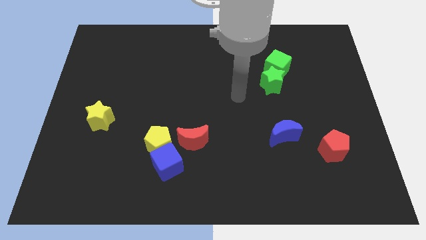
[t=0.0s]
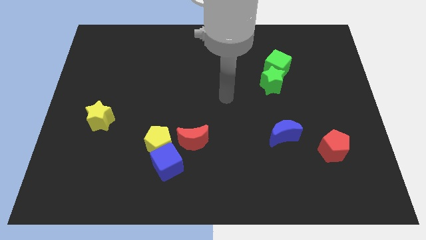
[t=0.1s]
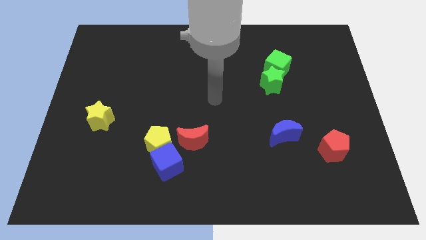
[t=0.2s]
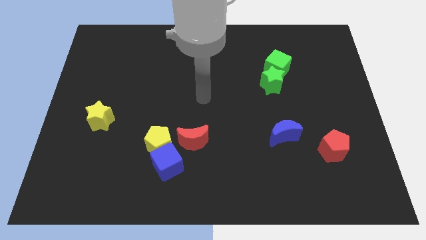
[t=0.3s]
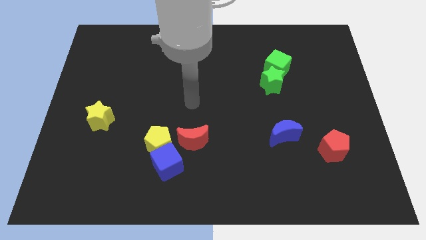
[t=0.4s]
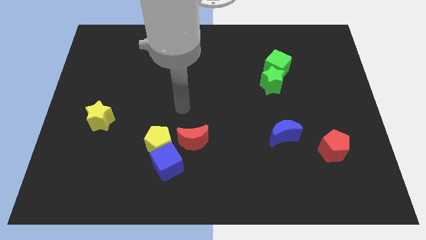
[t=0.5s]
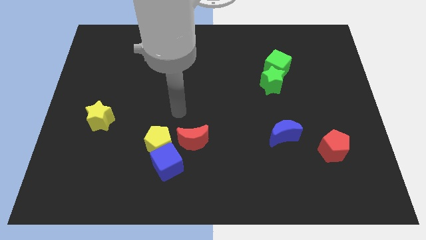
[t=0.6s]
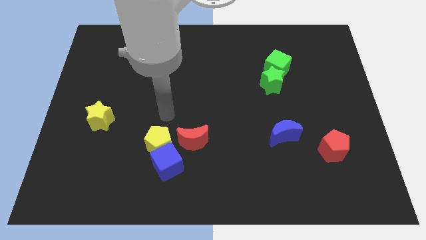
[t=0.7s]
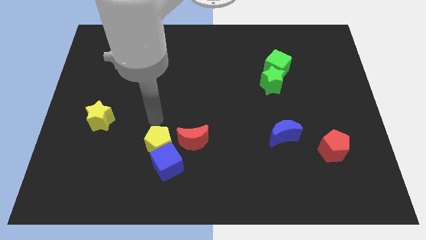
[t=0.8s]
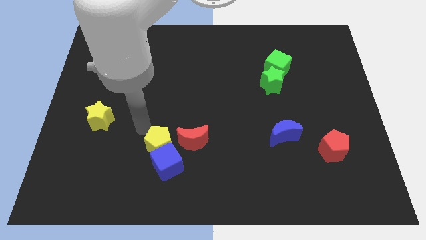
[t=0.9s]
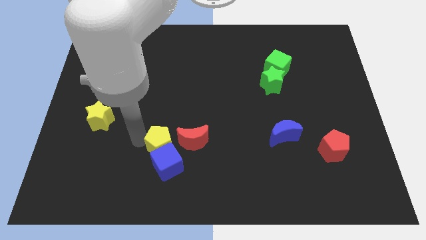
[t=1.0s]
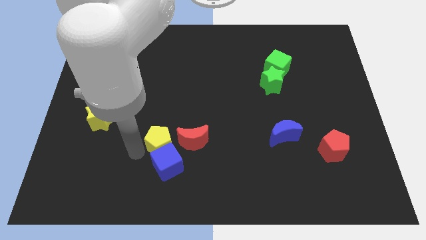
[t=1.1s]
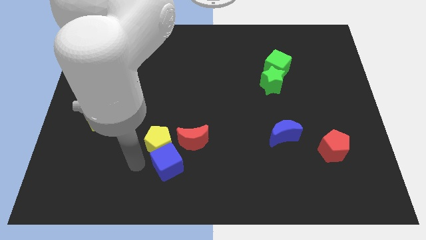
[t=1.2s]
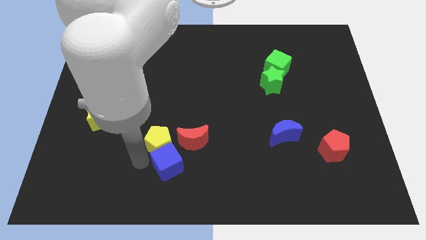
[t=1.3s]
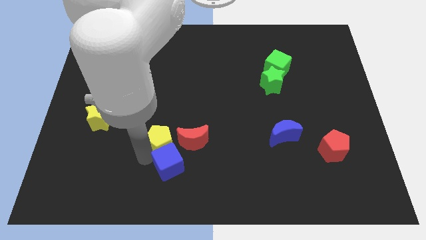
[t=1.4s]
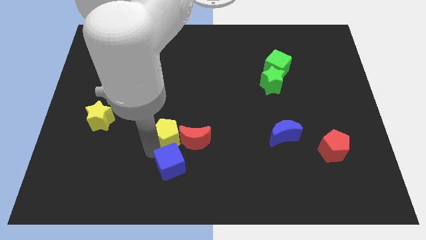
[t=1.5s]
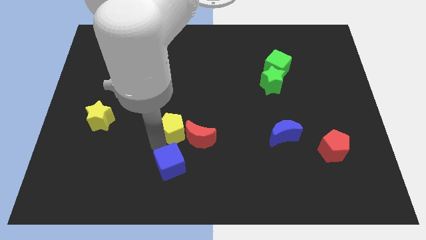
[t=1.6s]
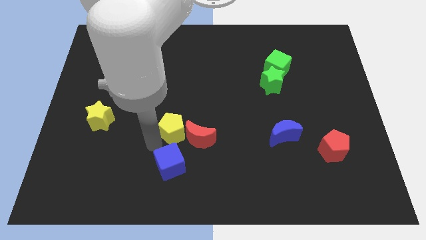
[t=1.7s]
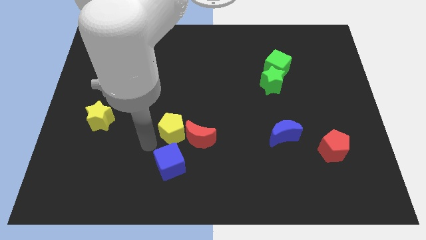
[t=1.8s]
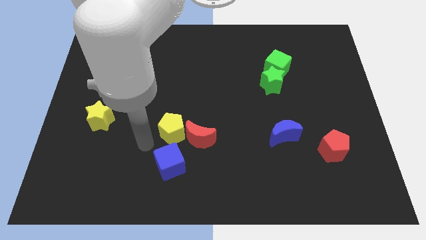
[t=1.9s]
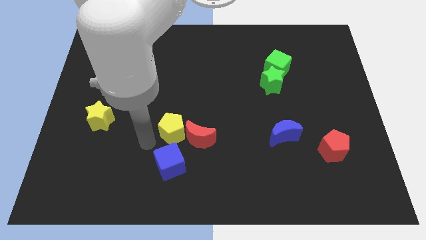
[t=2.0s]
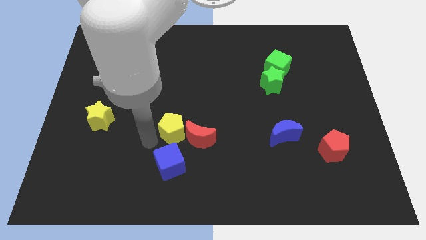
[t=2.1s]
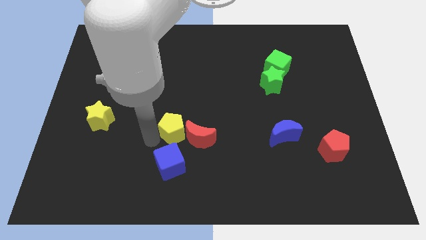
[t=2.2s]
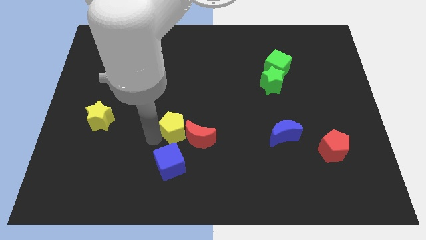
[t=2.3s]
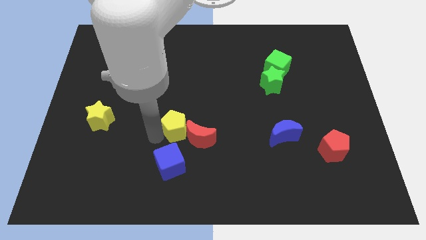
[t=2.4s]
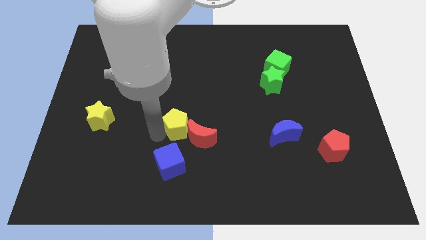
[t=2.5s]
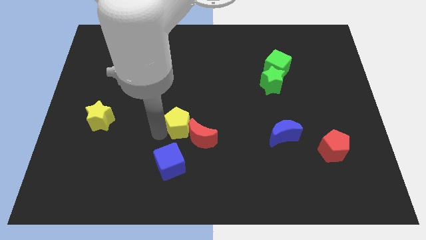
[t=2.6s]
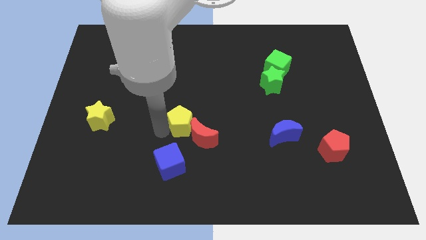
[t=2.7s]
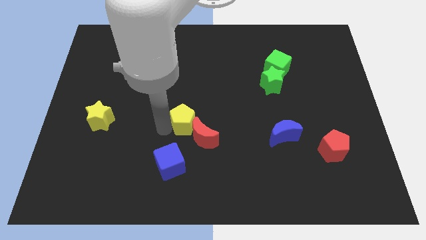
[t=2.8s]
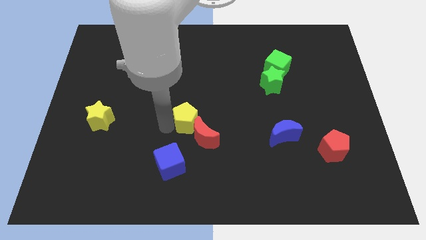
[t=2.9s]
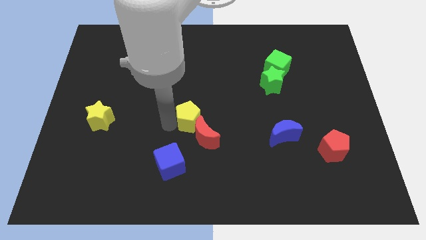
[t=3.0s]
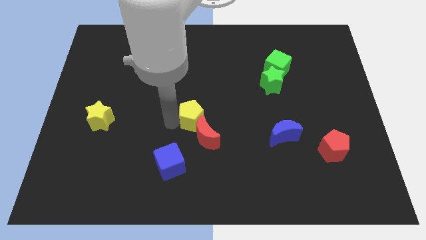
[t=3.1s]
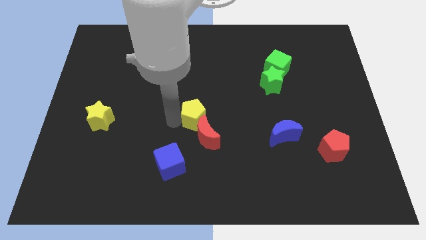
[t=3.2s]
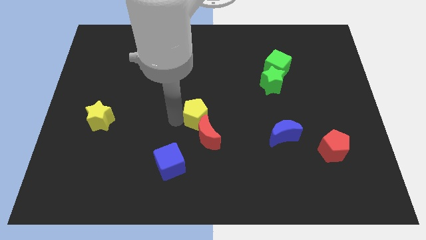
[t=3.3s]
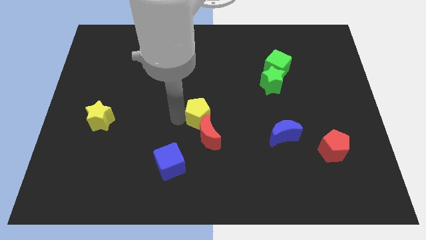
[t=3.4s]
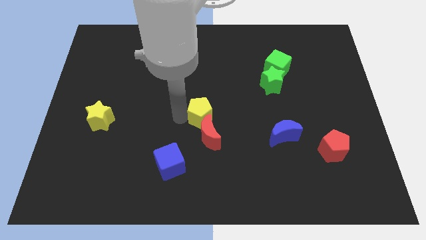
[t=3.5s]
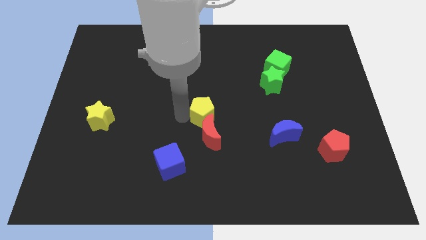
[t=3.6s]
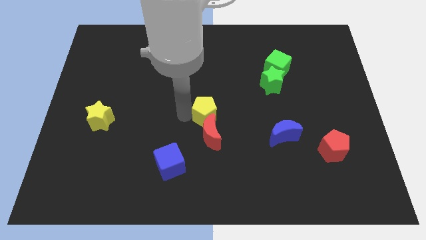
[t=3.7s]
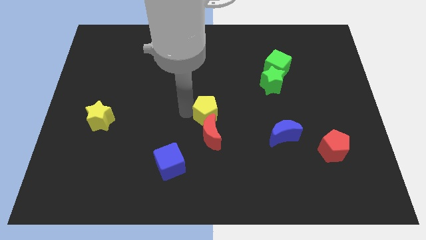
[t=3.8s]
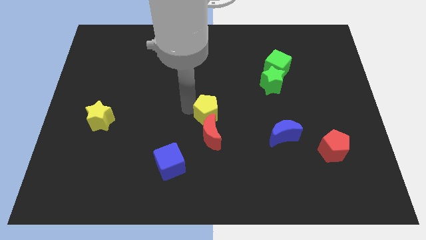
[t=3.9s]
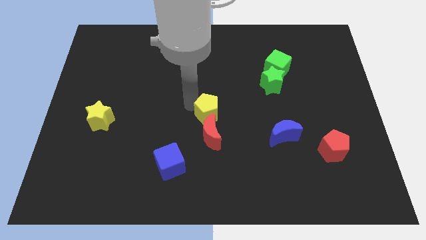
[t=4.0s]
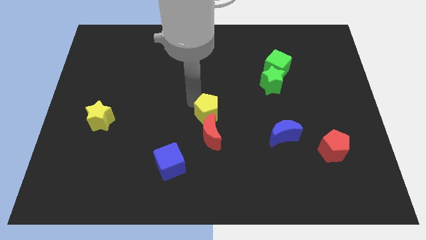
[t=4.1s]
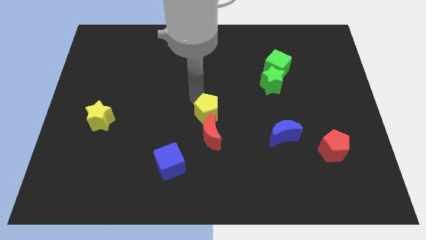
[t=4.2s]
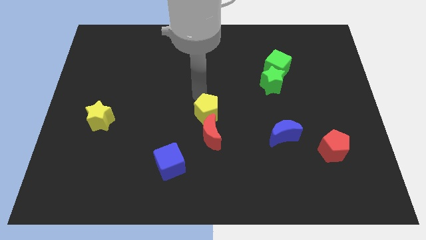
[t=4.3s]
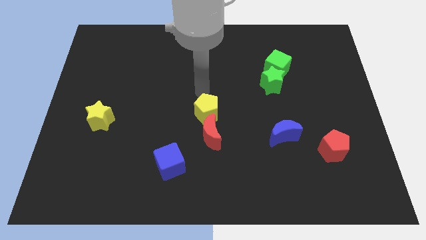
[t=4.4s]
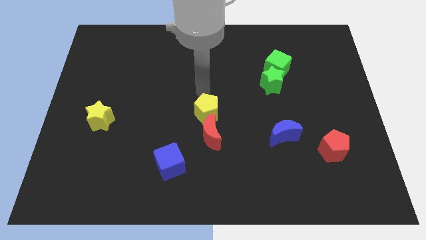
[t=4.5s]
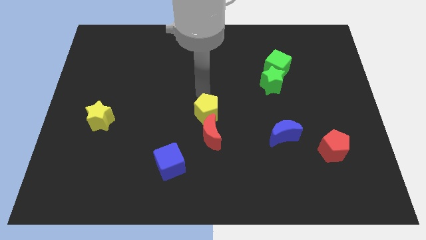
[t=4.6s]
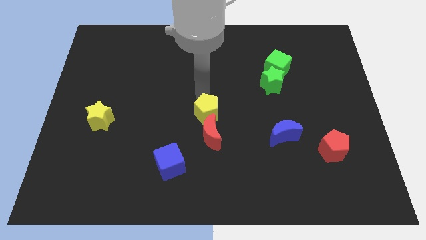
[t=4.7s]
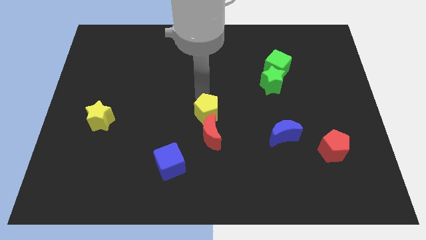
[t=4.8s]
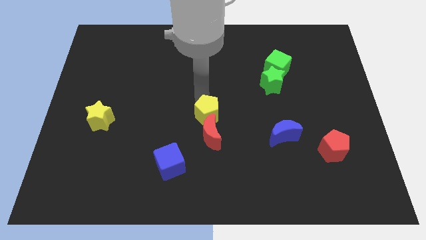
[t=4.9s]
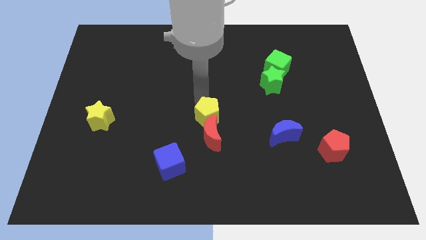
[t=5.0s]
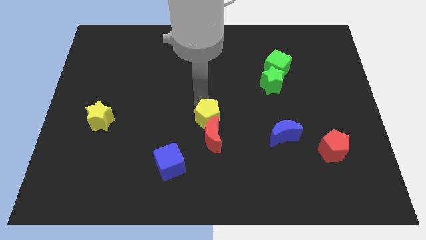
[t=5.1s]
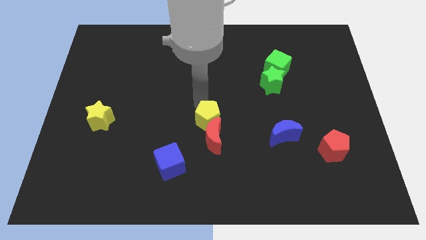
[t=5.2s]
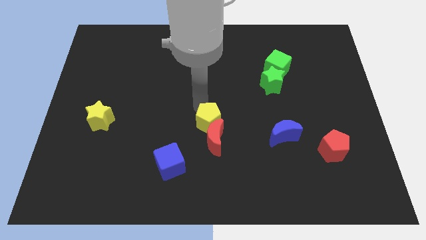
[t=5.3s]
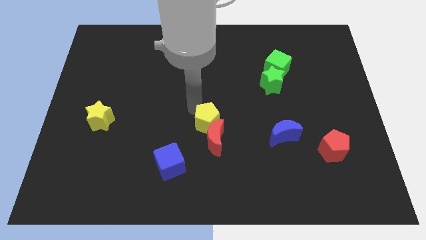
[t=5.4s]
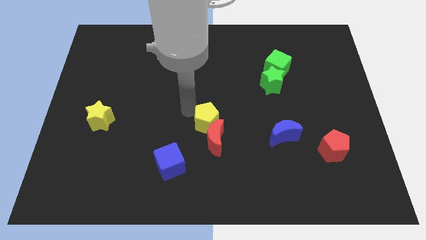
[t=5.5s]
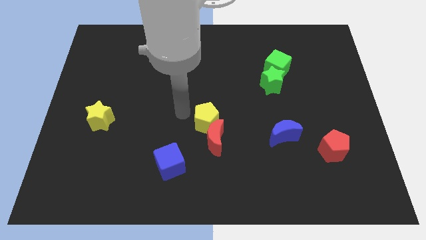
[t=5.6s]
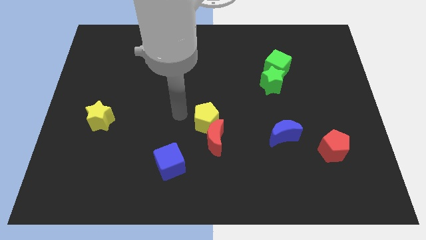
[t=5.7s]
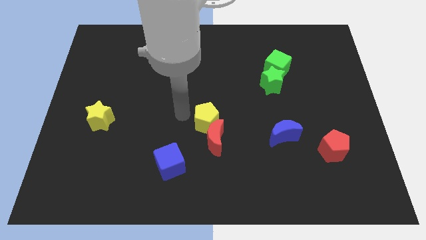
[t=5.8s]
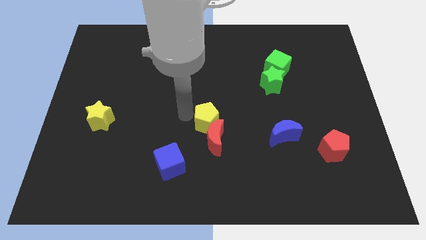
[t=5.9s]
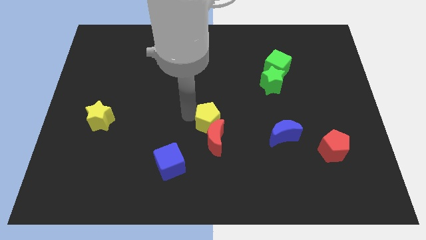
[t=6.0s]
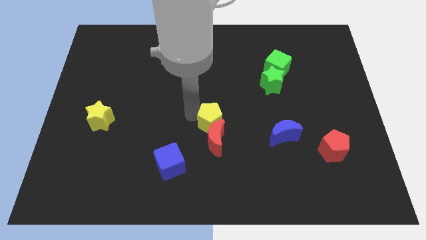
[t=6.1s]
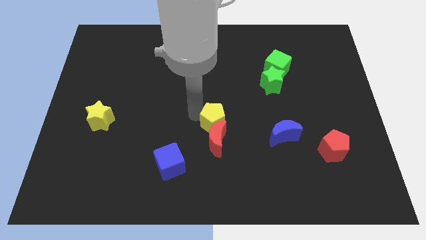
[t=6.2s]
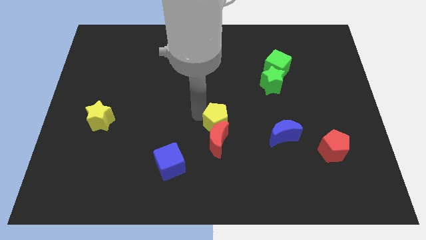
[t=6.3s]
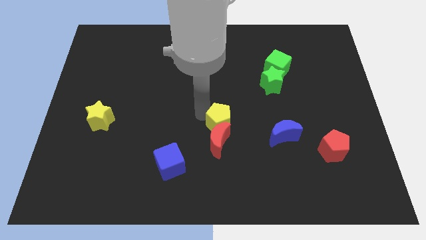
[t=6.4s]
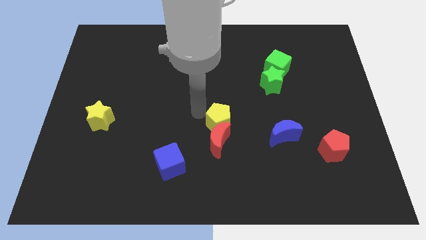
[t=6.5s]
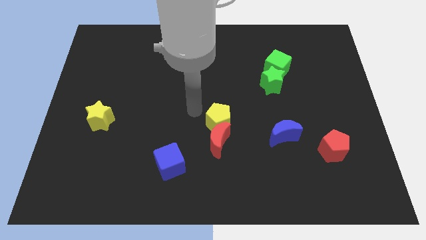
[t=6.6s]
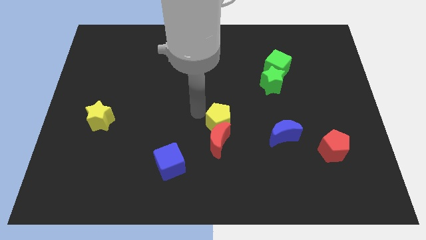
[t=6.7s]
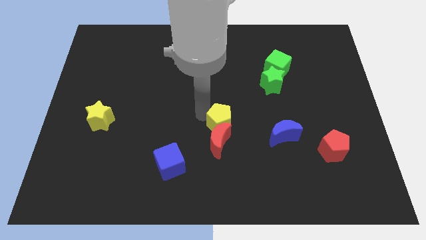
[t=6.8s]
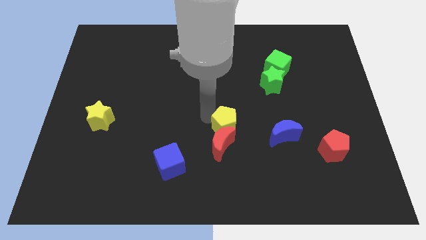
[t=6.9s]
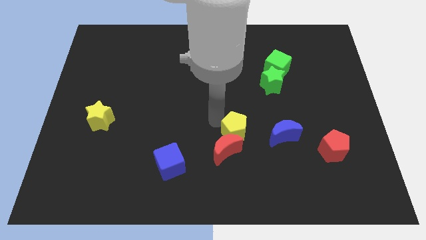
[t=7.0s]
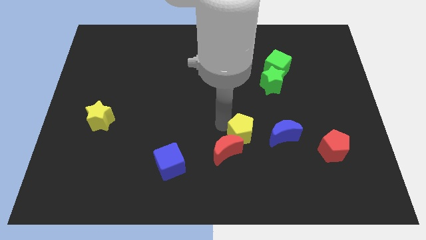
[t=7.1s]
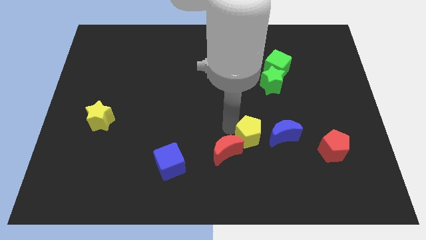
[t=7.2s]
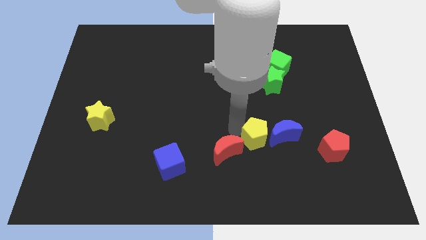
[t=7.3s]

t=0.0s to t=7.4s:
slide the yellow pentagon right

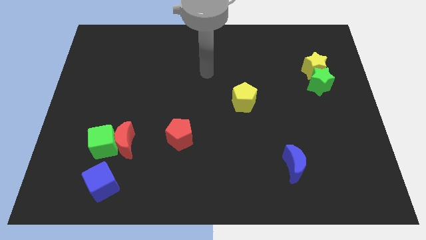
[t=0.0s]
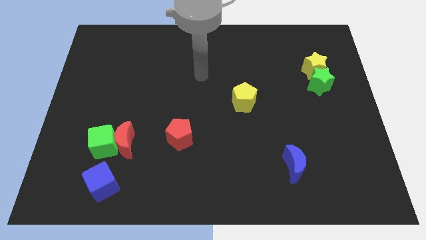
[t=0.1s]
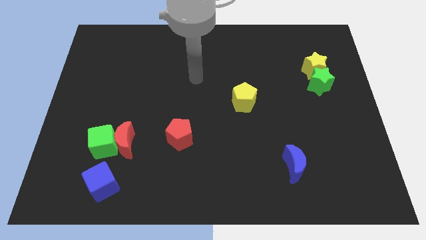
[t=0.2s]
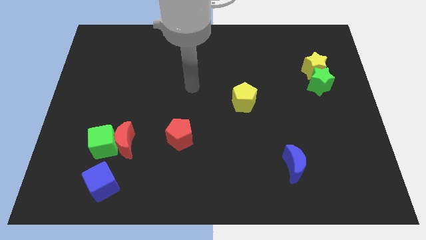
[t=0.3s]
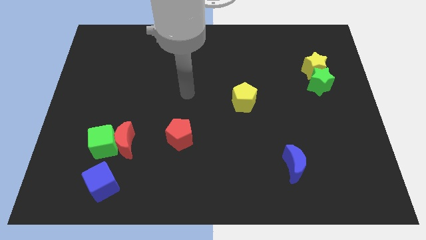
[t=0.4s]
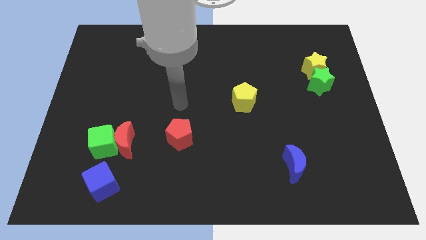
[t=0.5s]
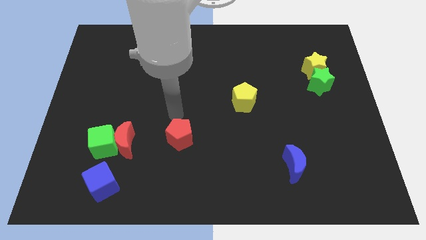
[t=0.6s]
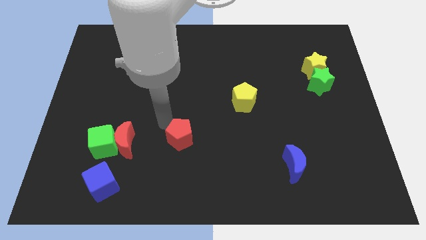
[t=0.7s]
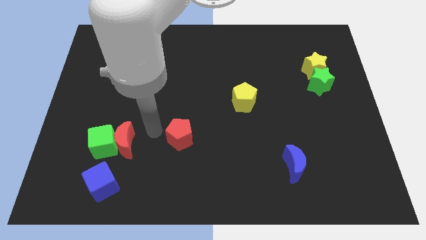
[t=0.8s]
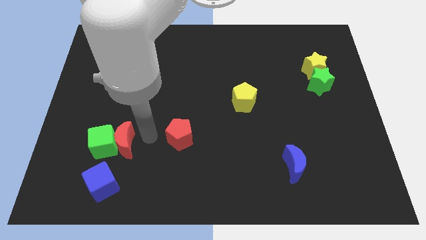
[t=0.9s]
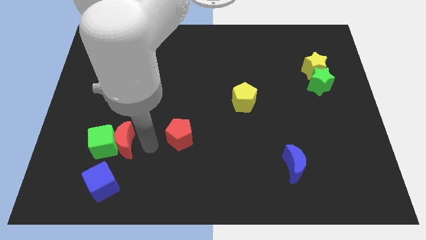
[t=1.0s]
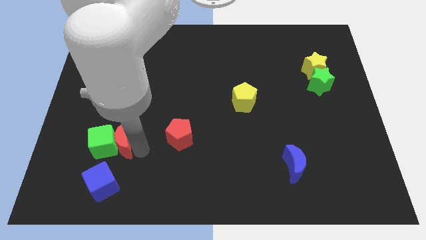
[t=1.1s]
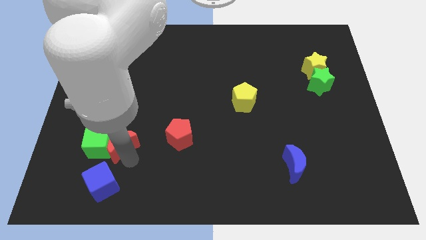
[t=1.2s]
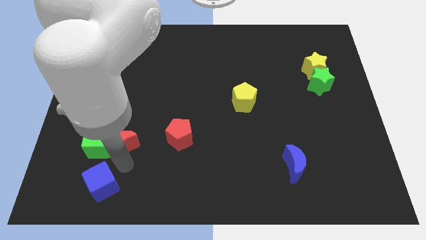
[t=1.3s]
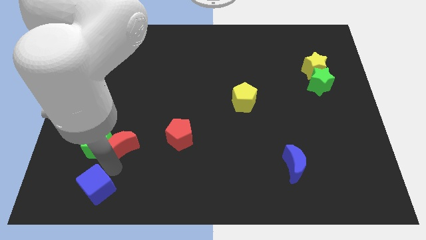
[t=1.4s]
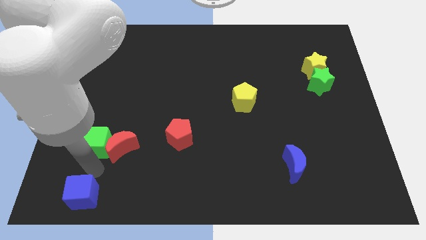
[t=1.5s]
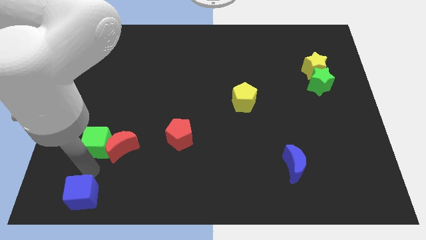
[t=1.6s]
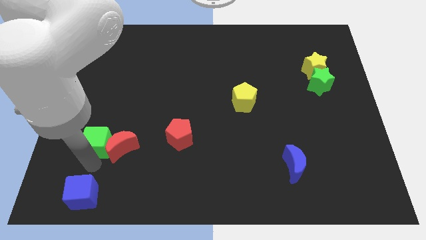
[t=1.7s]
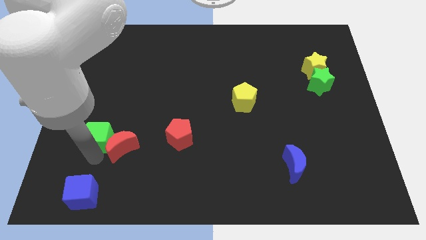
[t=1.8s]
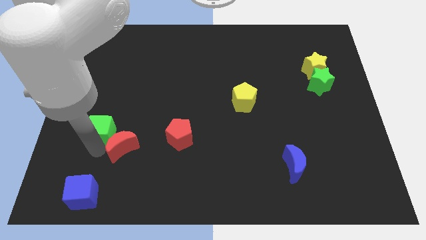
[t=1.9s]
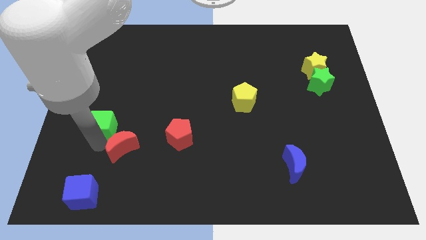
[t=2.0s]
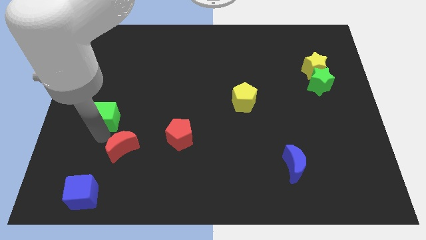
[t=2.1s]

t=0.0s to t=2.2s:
move the green cube up a little
